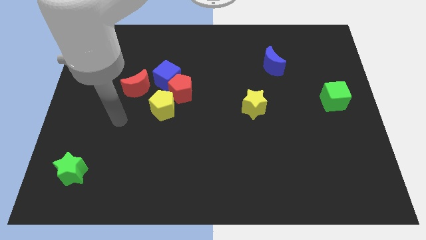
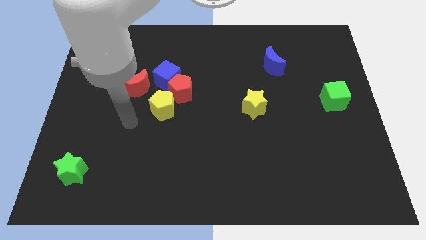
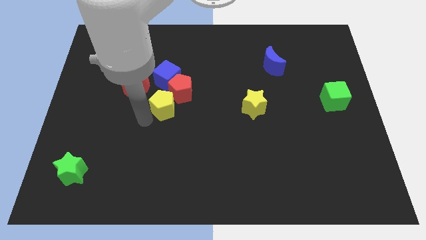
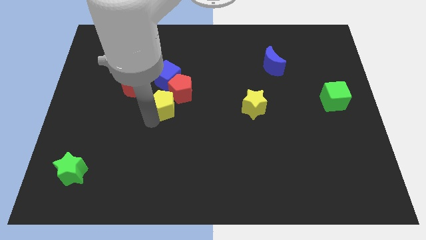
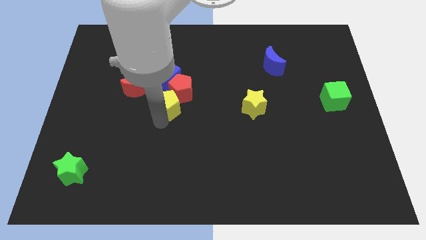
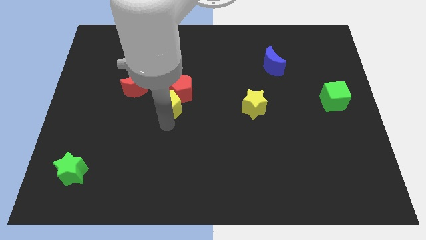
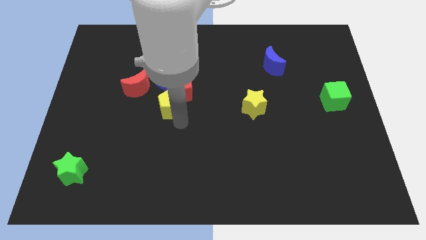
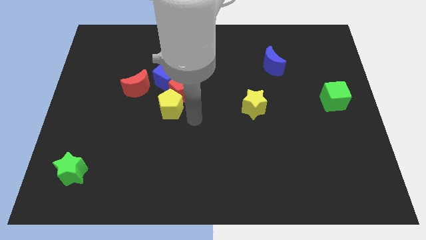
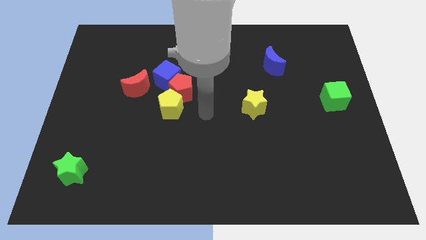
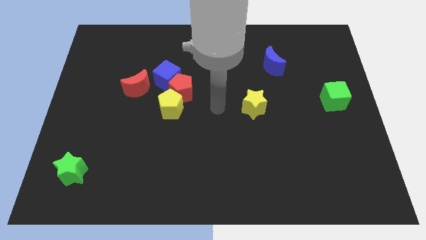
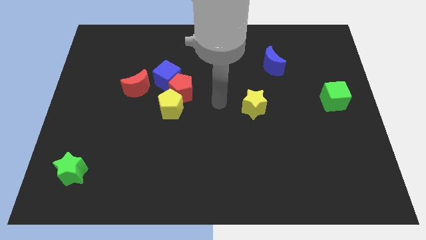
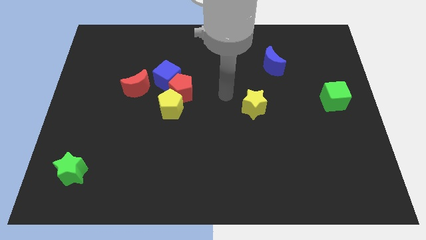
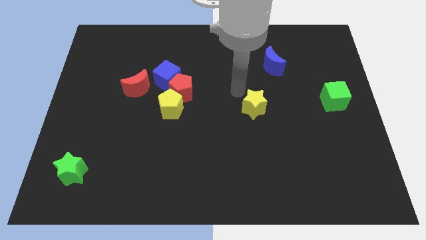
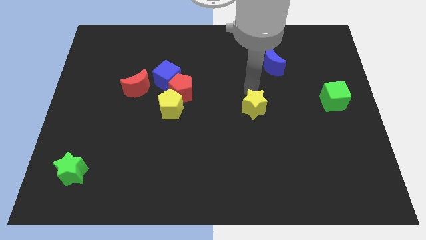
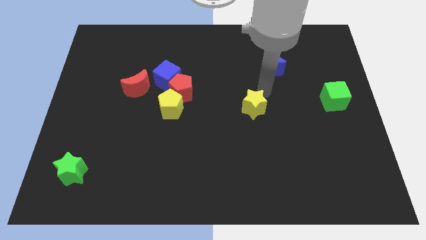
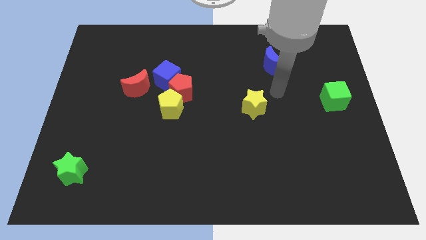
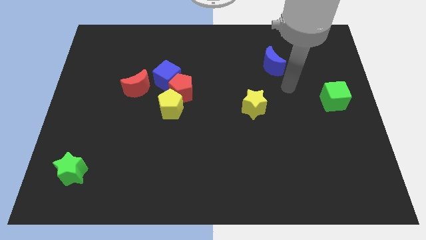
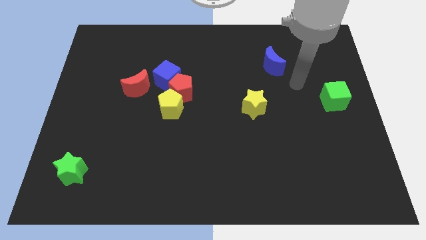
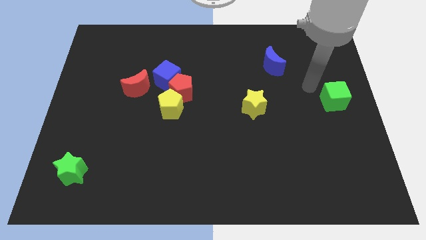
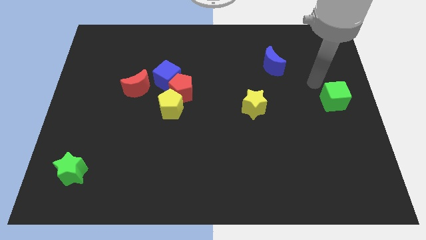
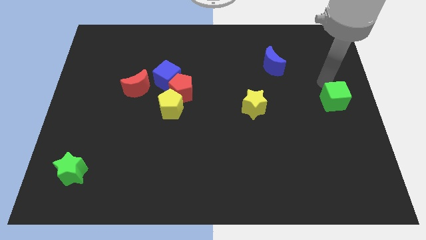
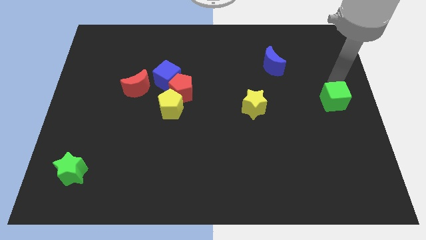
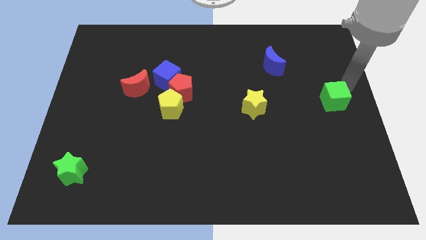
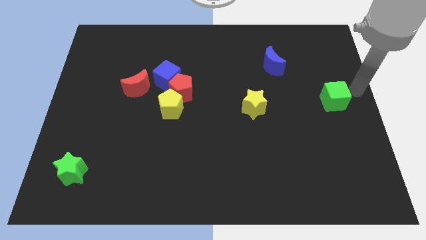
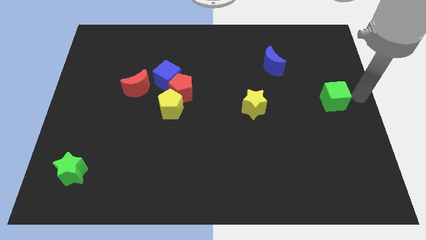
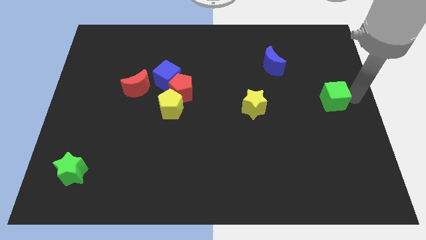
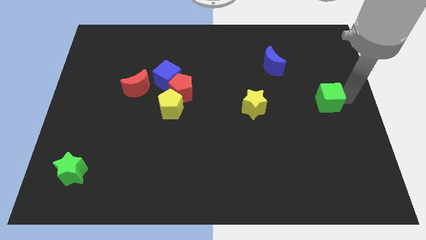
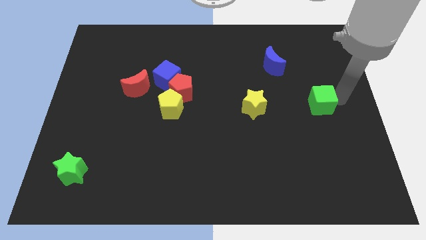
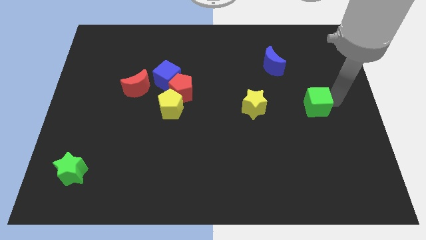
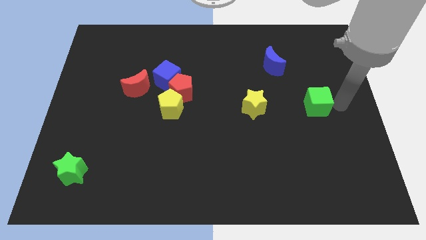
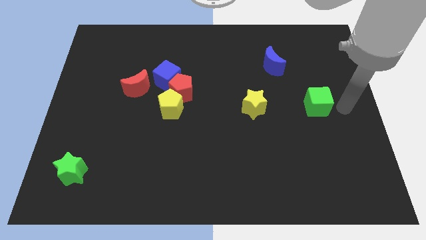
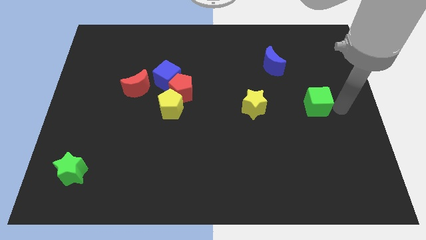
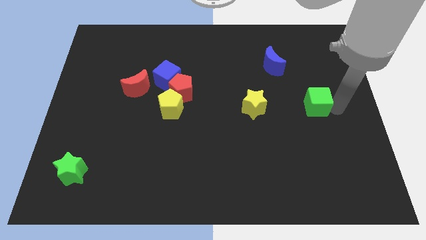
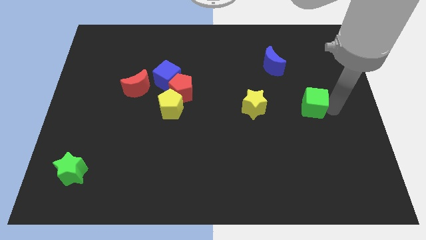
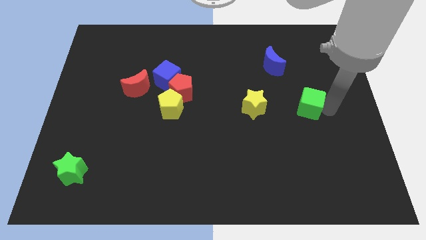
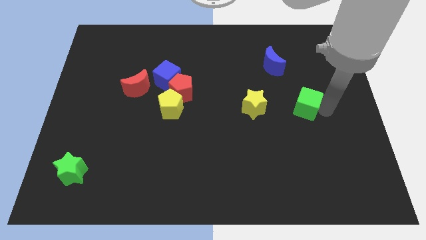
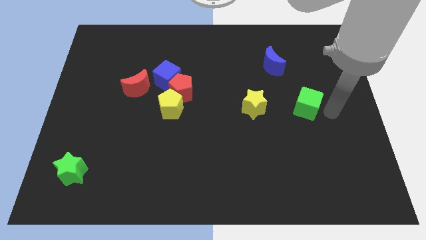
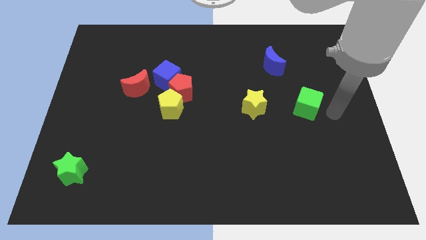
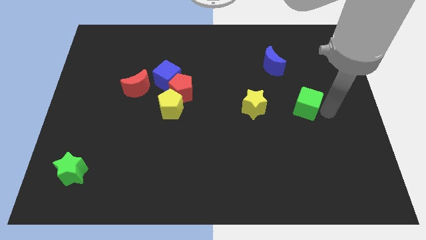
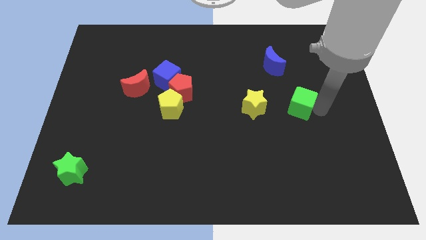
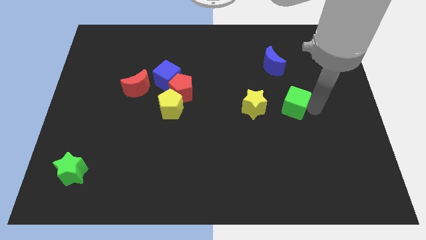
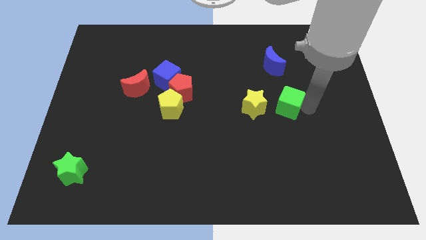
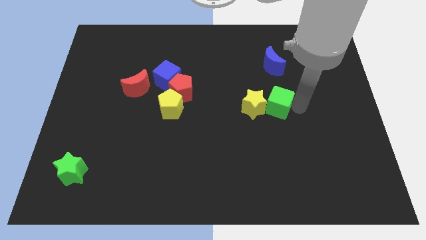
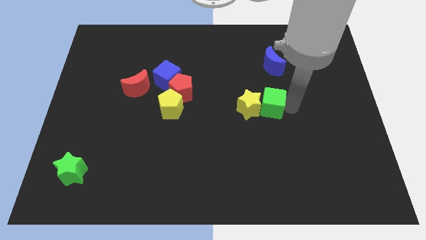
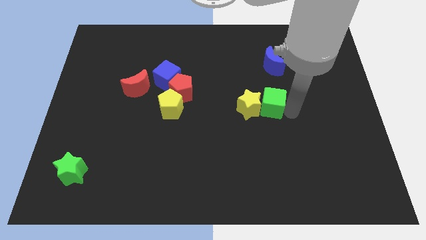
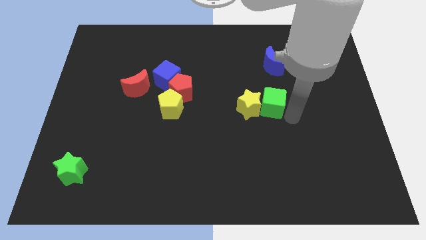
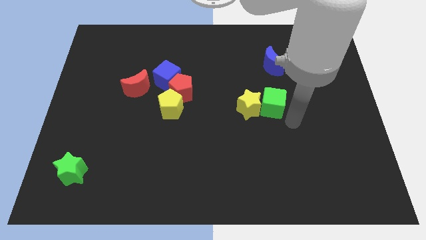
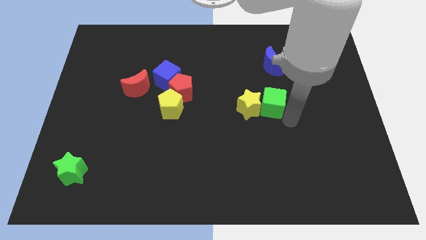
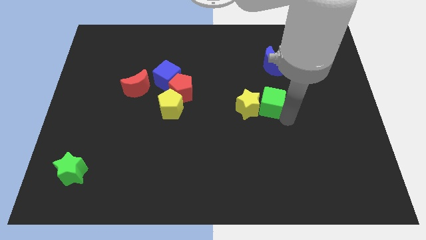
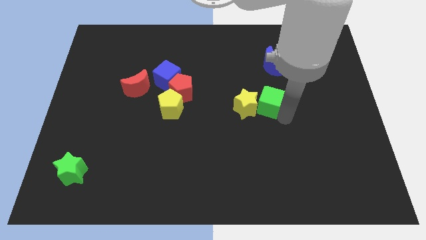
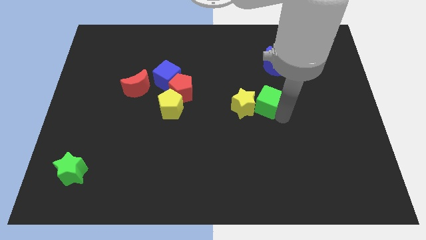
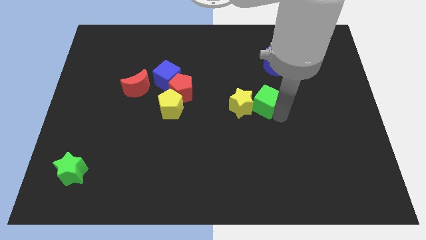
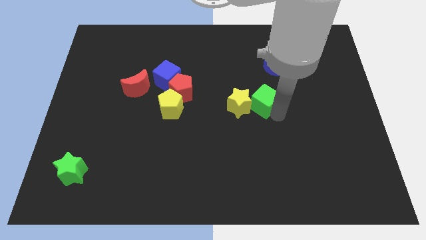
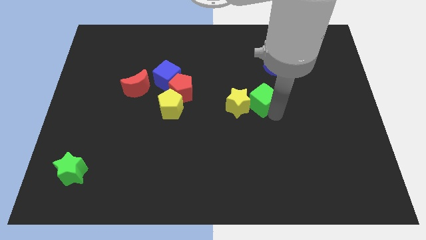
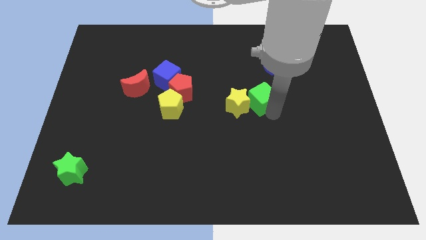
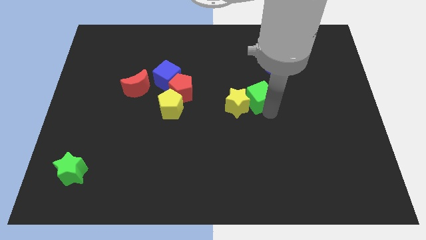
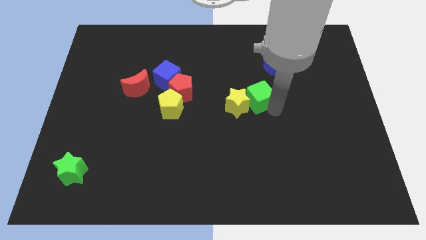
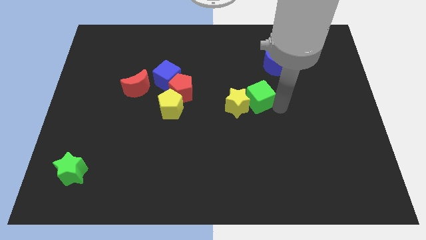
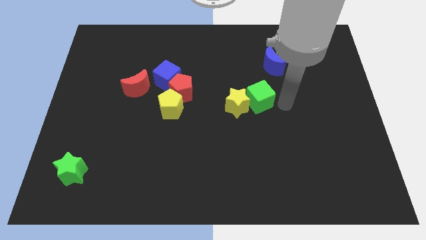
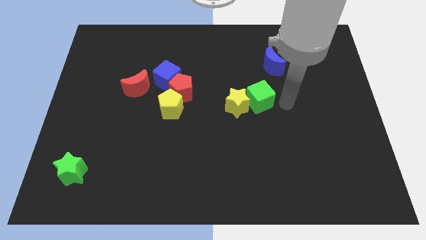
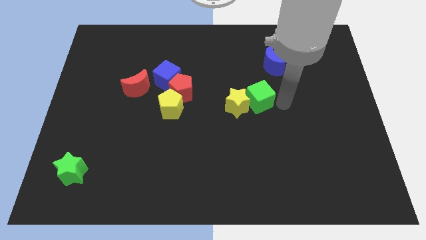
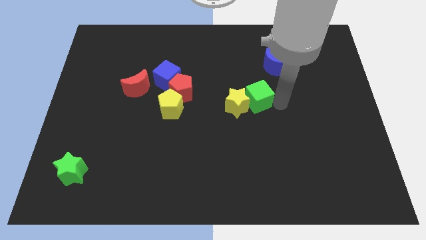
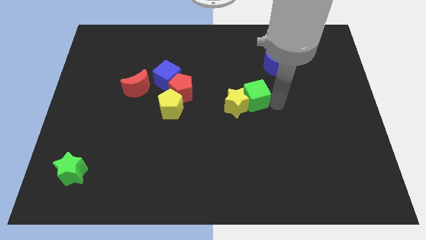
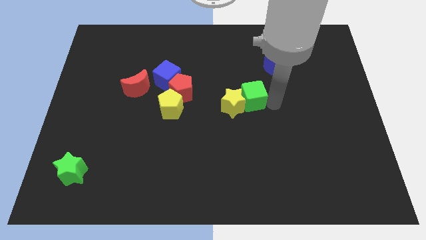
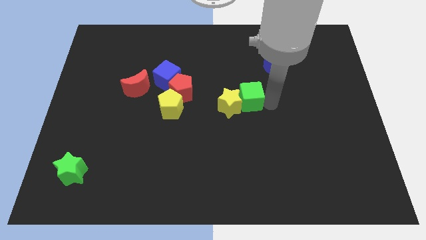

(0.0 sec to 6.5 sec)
slide the green cube to the left

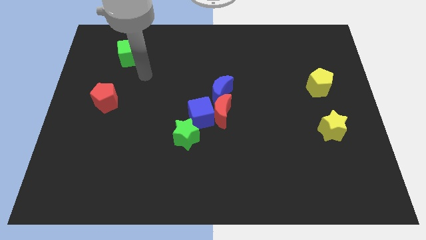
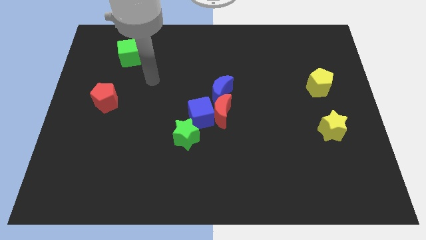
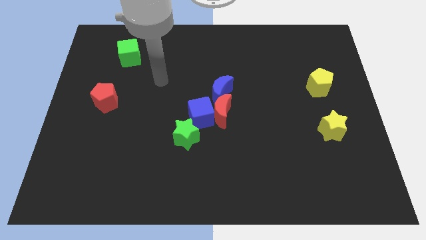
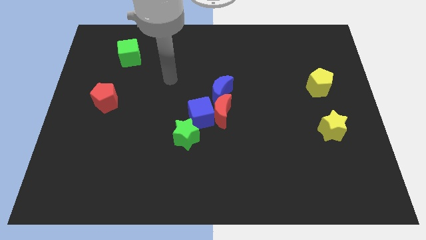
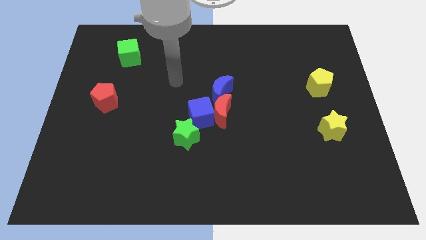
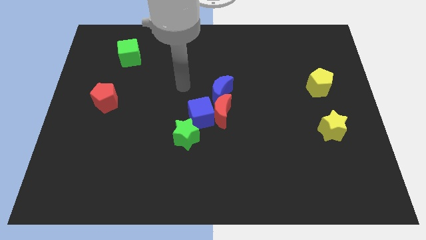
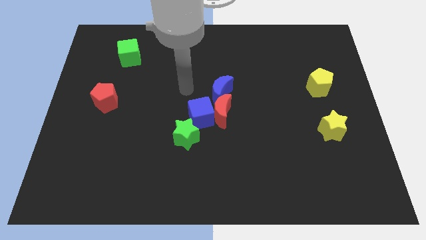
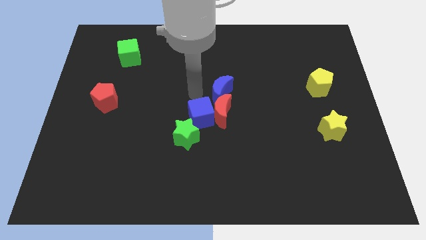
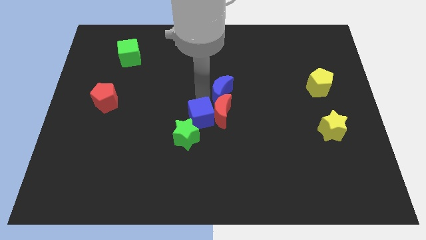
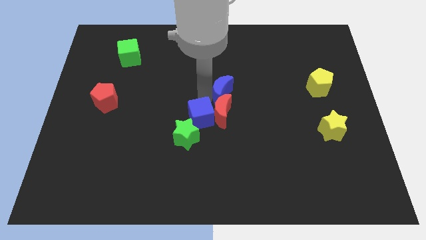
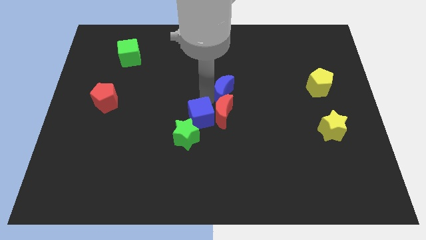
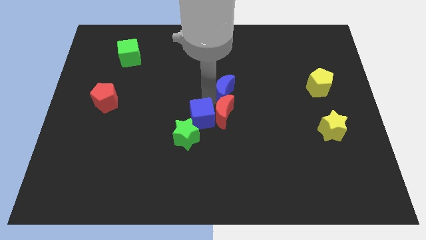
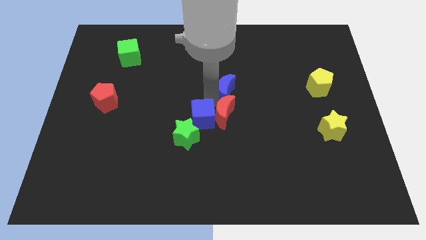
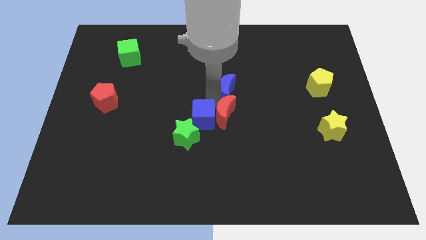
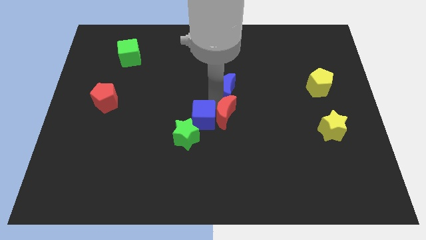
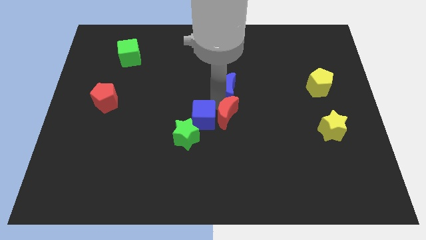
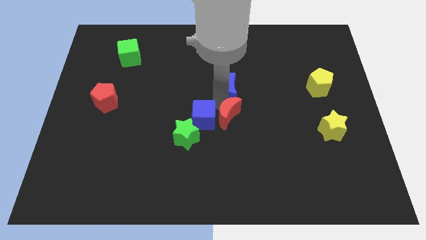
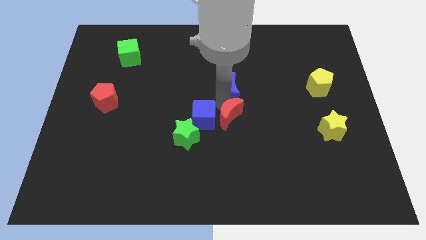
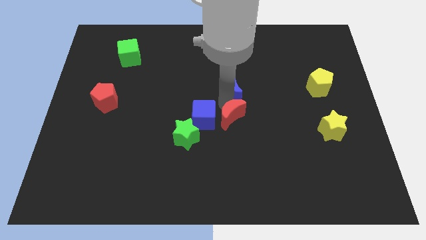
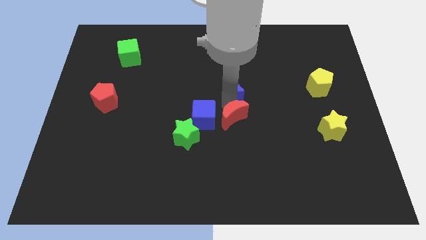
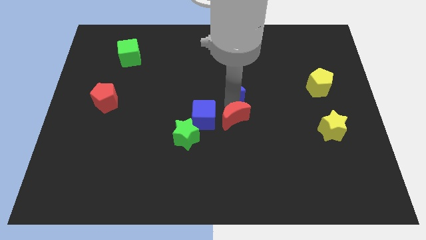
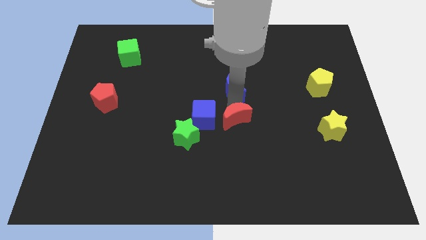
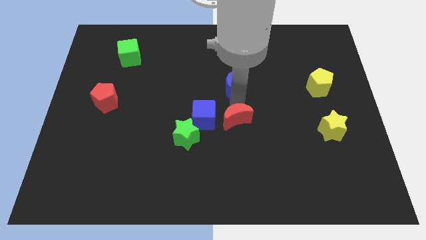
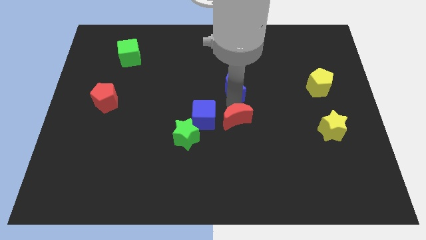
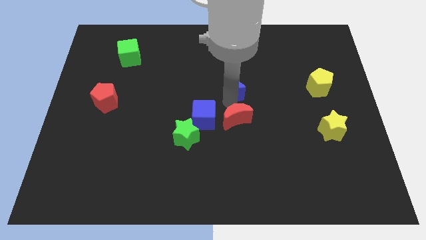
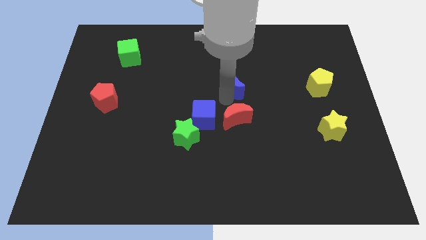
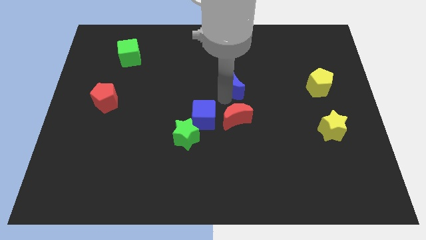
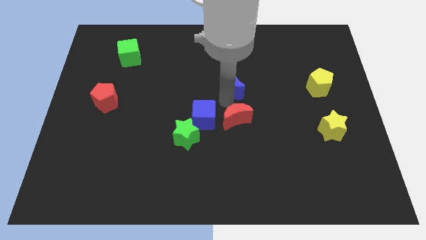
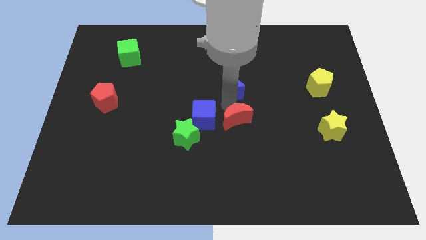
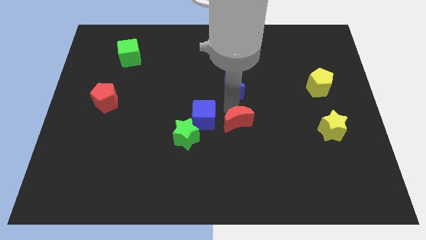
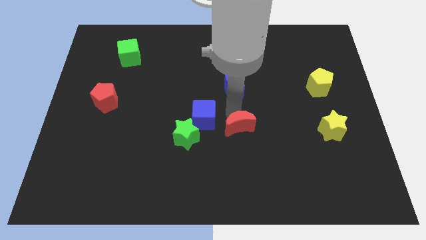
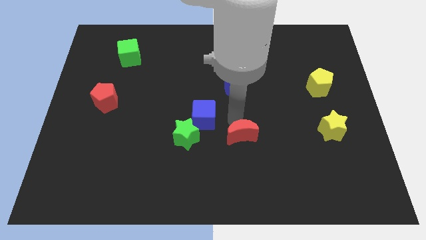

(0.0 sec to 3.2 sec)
push the red moon down and then to the right somewhat
